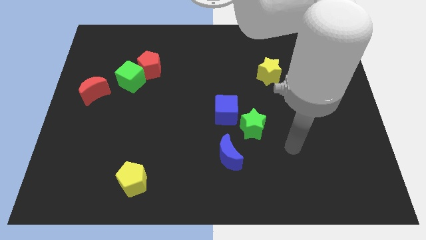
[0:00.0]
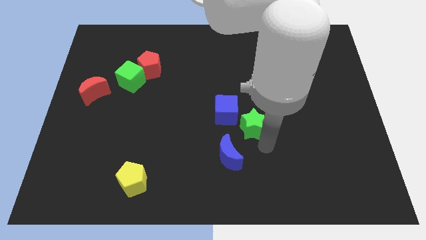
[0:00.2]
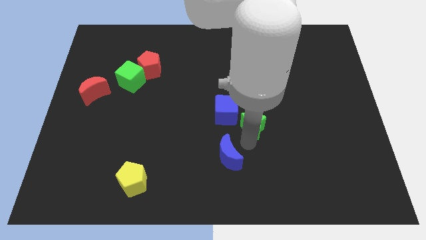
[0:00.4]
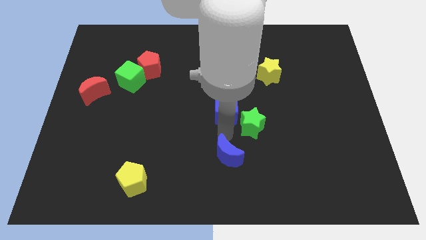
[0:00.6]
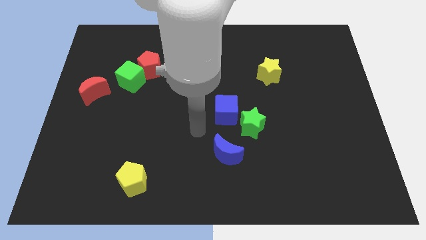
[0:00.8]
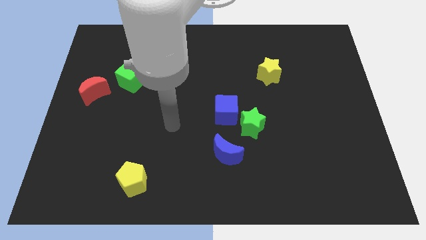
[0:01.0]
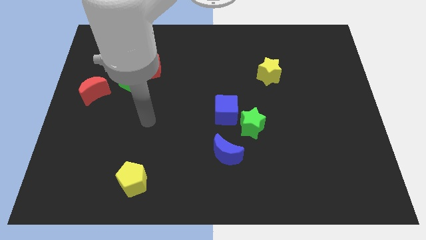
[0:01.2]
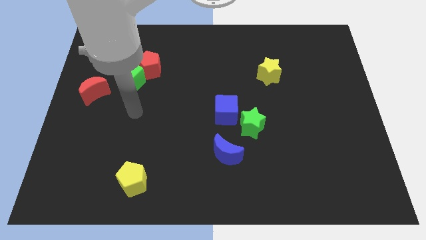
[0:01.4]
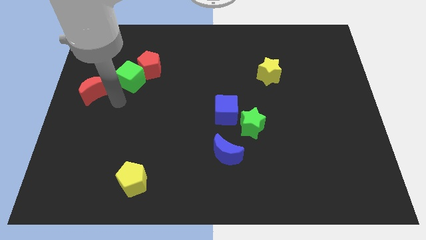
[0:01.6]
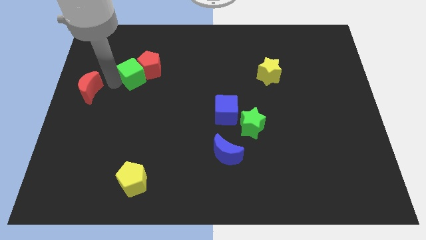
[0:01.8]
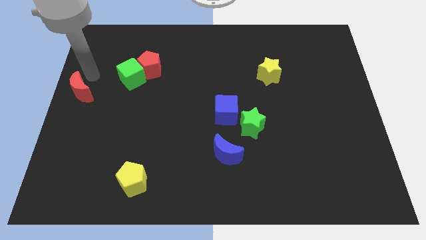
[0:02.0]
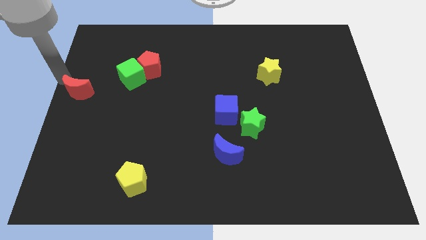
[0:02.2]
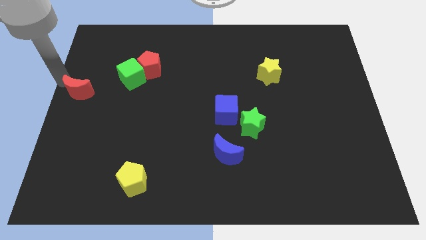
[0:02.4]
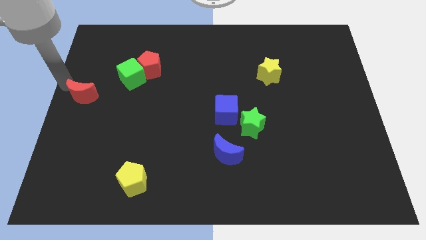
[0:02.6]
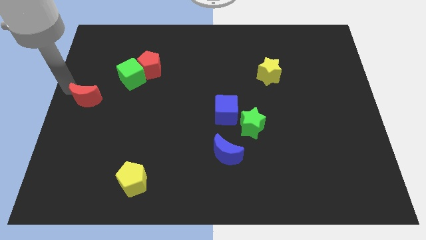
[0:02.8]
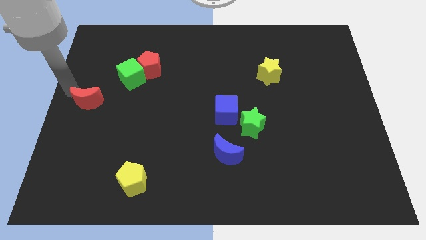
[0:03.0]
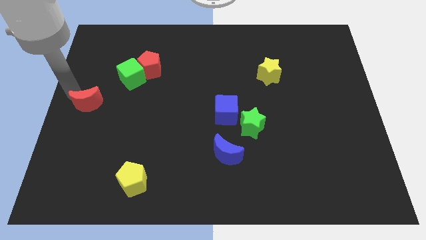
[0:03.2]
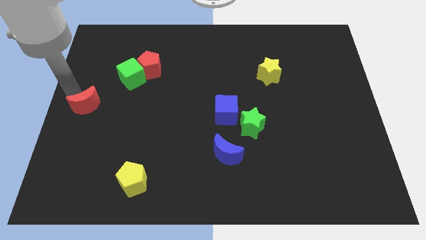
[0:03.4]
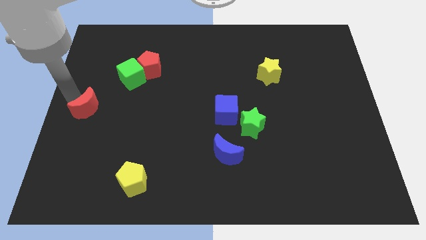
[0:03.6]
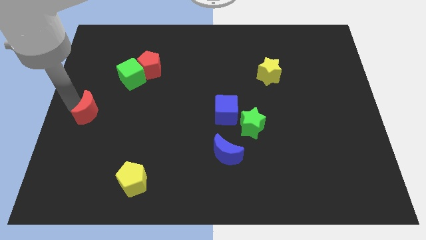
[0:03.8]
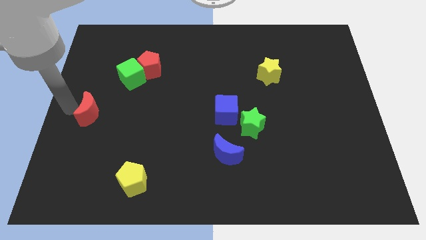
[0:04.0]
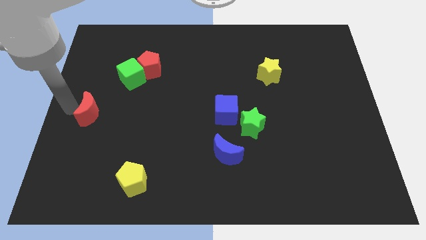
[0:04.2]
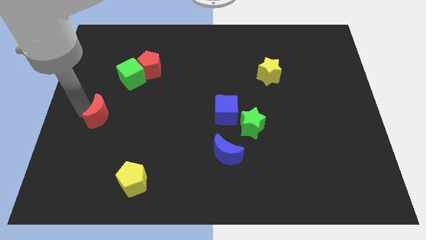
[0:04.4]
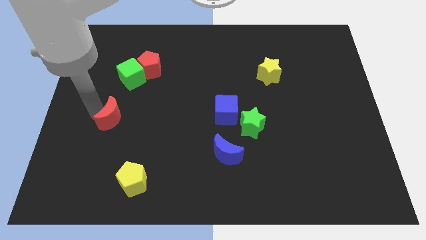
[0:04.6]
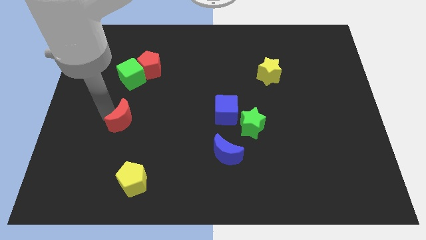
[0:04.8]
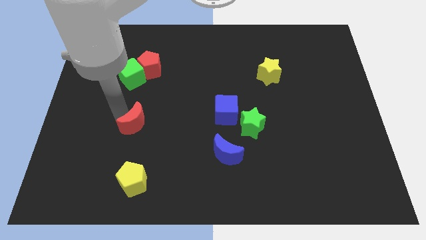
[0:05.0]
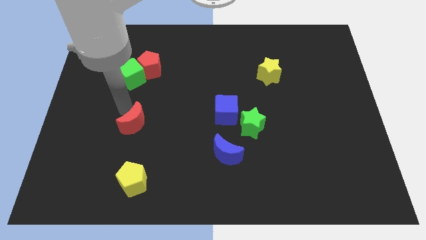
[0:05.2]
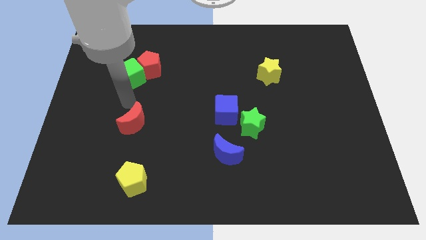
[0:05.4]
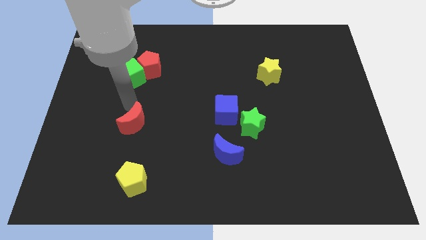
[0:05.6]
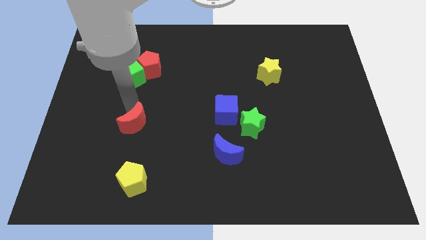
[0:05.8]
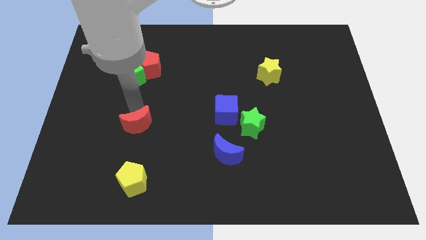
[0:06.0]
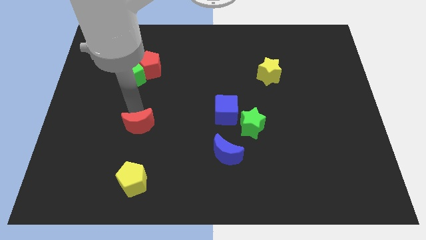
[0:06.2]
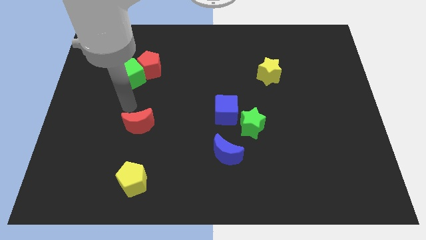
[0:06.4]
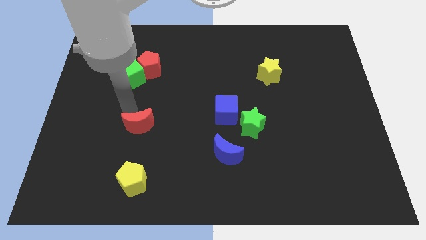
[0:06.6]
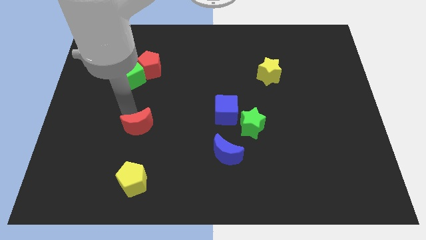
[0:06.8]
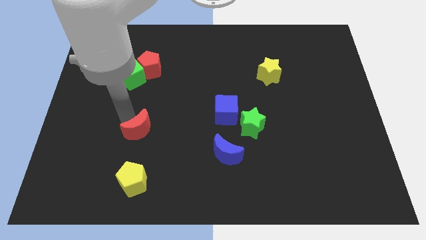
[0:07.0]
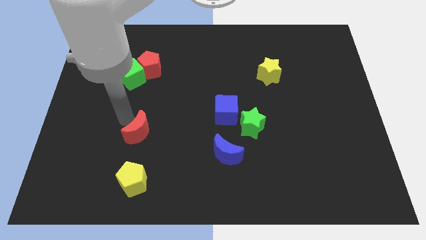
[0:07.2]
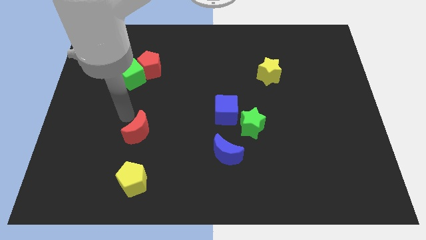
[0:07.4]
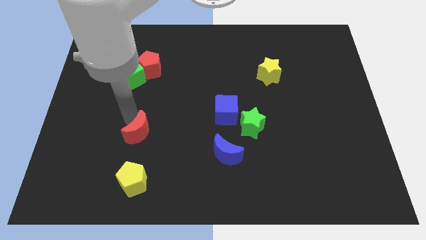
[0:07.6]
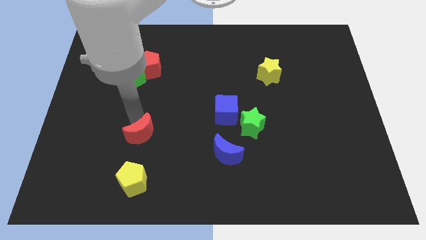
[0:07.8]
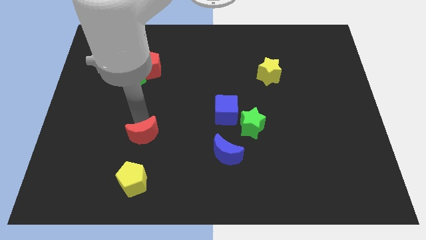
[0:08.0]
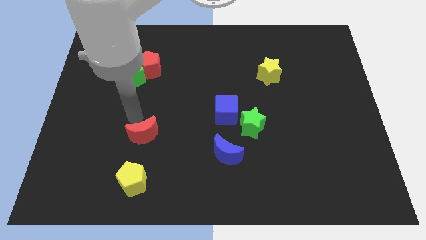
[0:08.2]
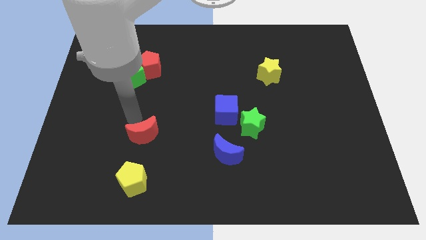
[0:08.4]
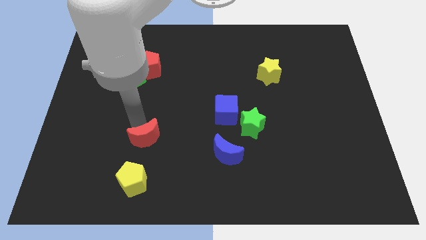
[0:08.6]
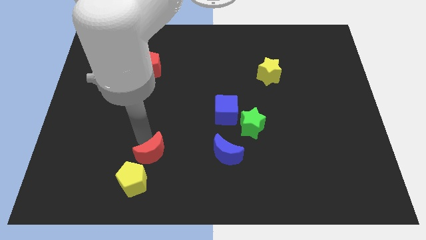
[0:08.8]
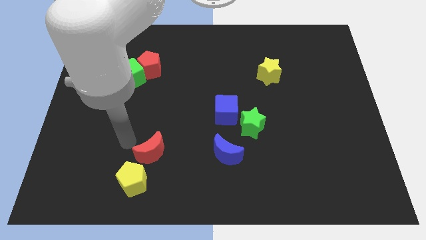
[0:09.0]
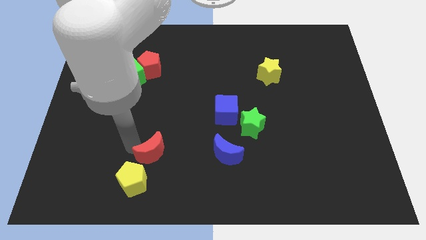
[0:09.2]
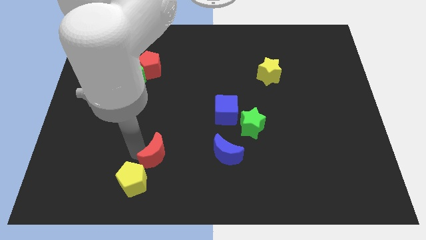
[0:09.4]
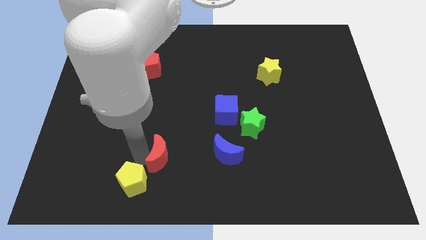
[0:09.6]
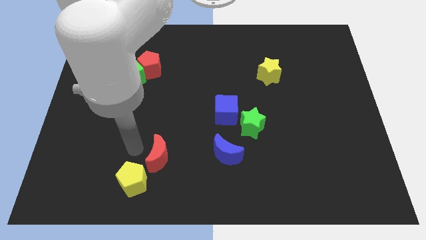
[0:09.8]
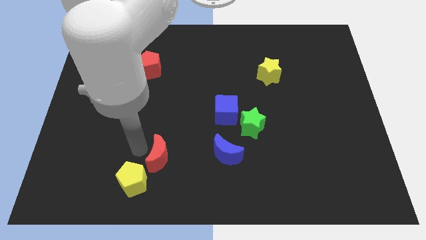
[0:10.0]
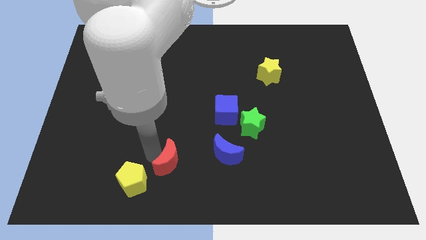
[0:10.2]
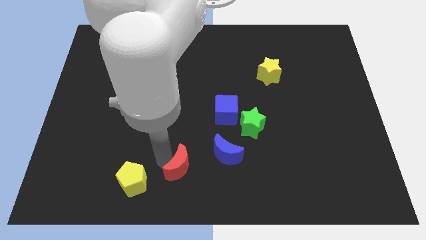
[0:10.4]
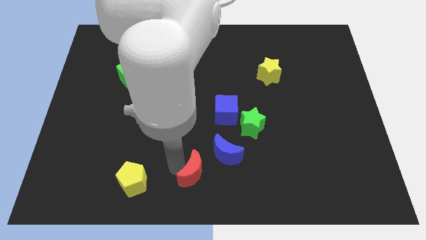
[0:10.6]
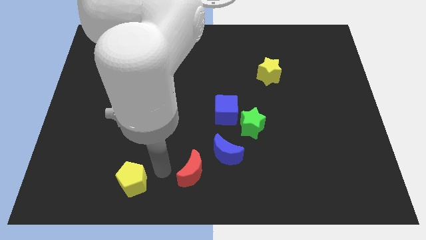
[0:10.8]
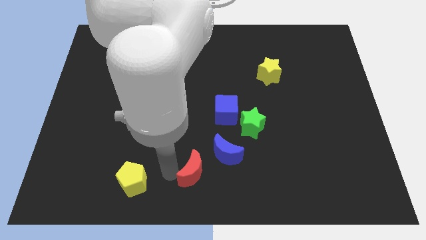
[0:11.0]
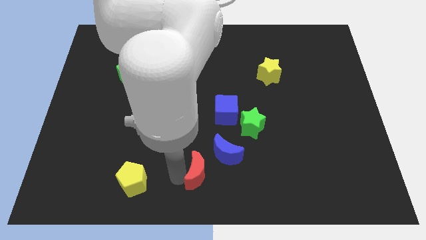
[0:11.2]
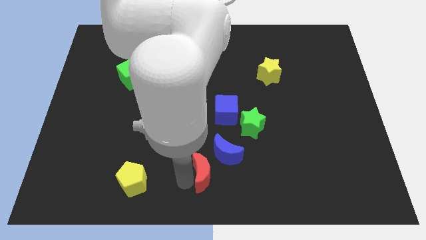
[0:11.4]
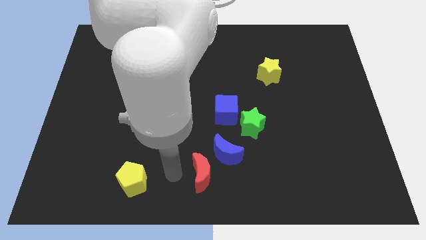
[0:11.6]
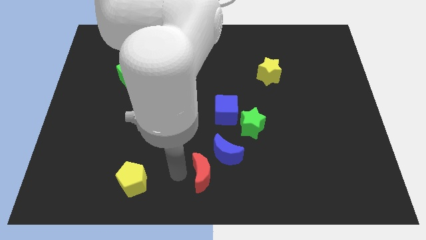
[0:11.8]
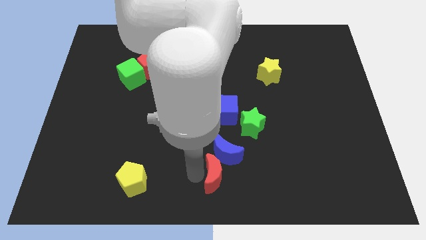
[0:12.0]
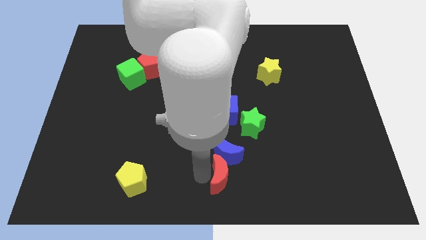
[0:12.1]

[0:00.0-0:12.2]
push the red moon to the bottom right of the blue moon

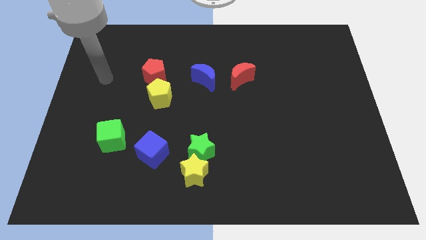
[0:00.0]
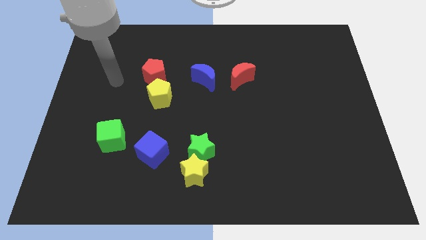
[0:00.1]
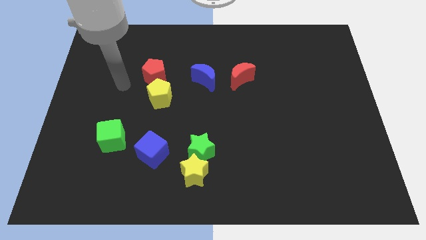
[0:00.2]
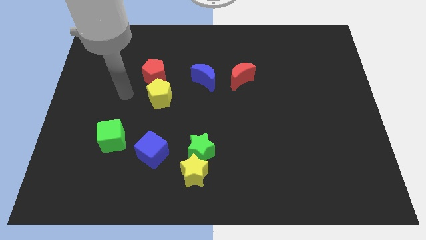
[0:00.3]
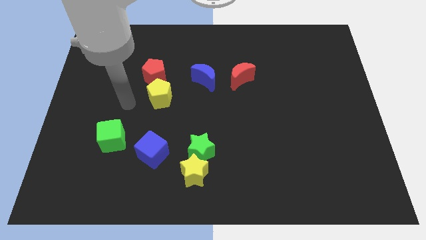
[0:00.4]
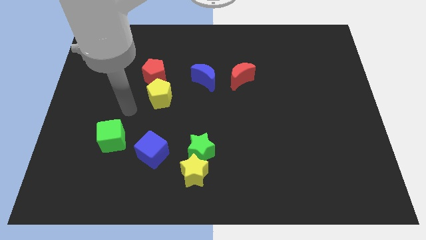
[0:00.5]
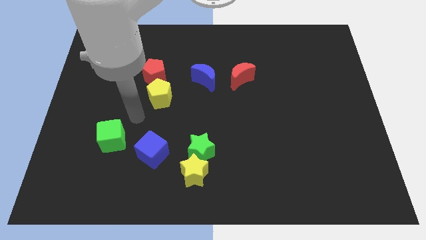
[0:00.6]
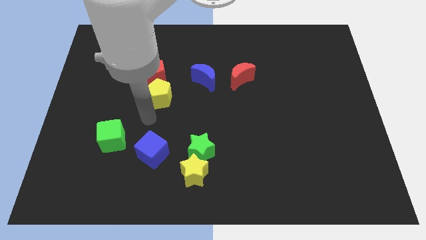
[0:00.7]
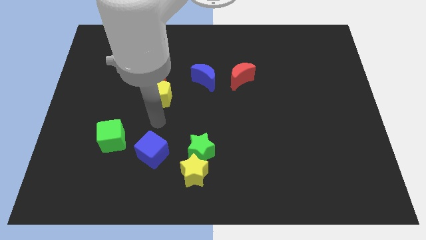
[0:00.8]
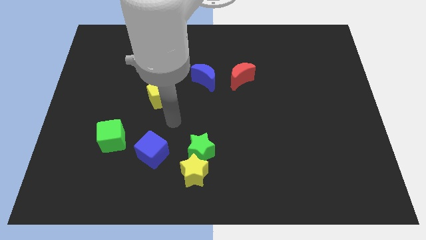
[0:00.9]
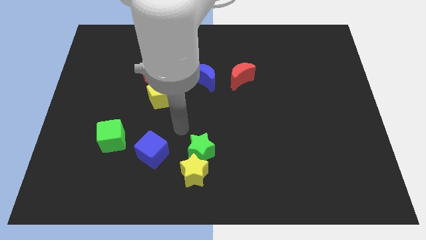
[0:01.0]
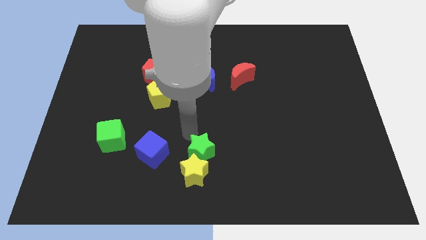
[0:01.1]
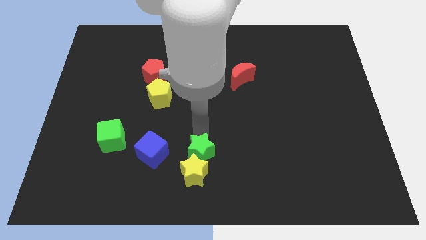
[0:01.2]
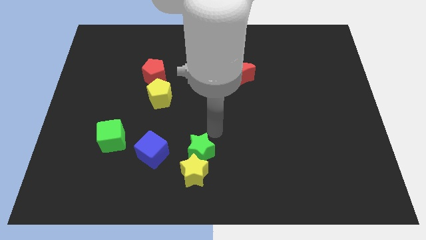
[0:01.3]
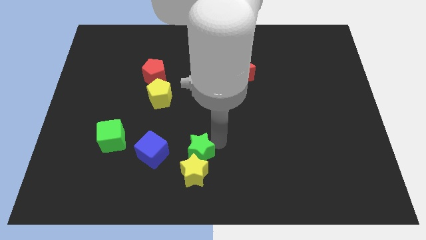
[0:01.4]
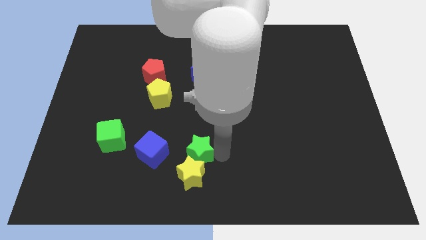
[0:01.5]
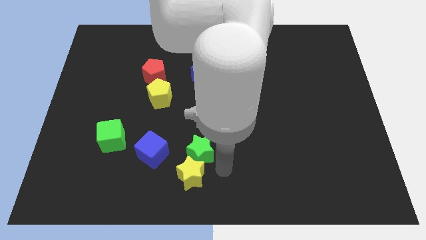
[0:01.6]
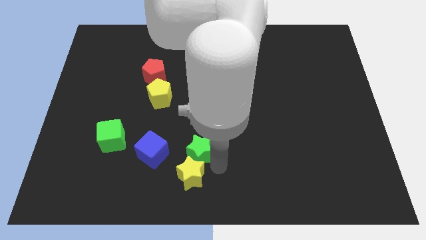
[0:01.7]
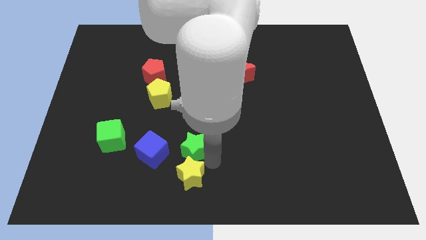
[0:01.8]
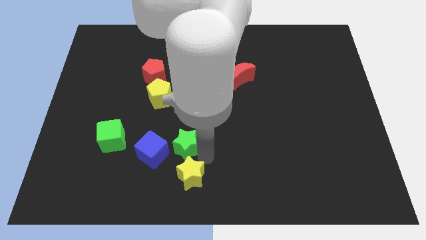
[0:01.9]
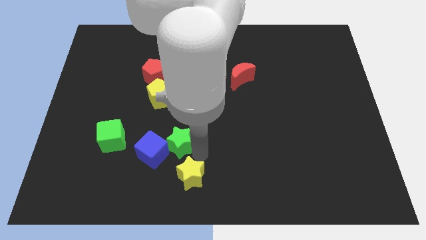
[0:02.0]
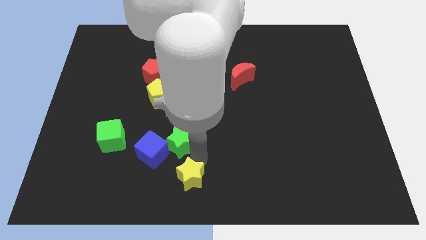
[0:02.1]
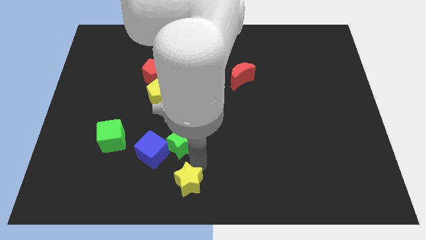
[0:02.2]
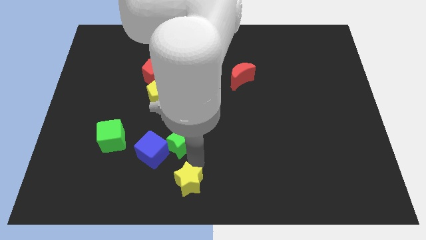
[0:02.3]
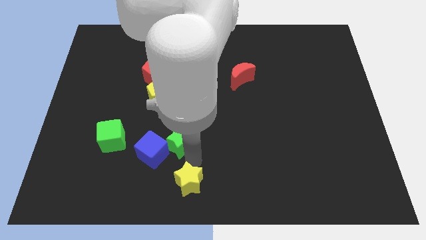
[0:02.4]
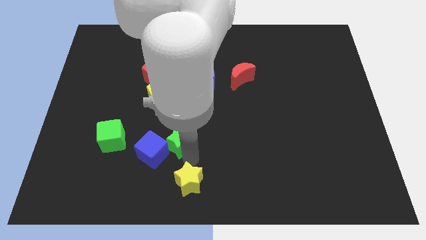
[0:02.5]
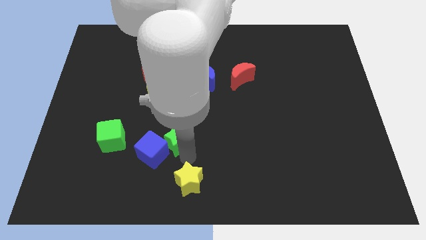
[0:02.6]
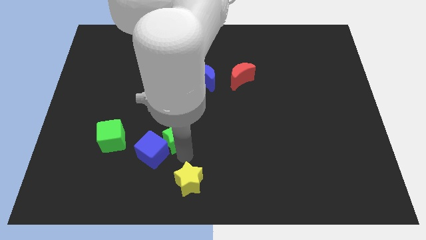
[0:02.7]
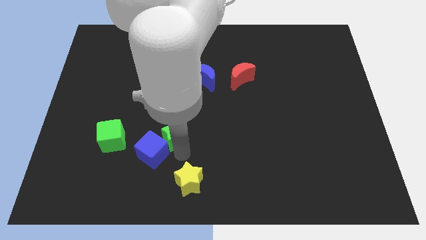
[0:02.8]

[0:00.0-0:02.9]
push the green star to the top side of the blue cube
